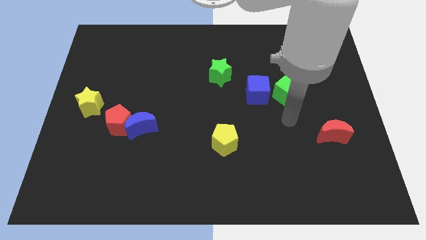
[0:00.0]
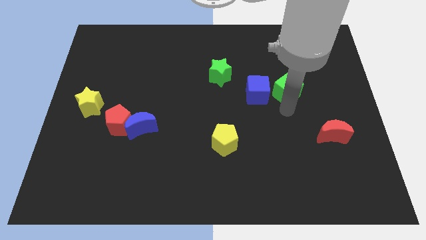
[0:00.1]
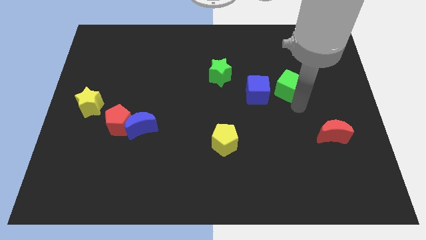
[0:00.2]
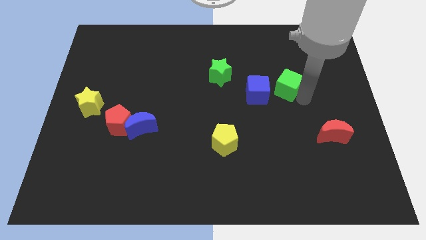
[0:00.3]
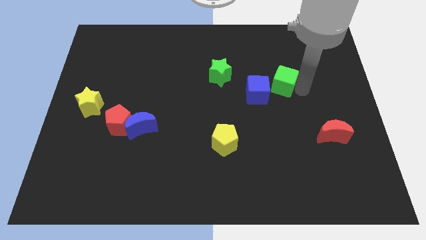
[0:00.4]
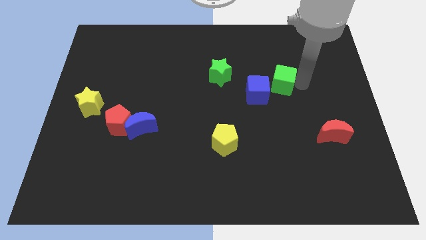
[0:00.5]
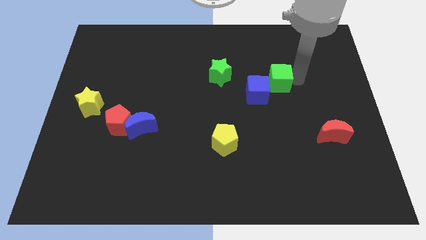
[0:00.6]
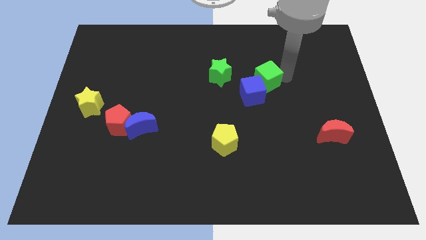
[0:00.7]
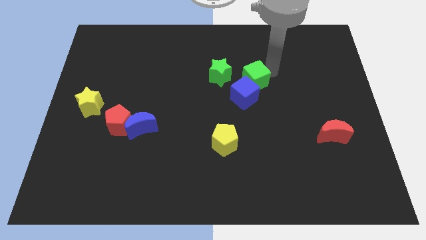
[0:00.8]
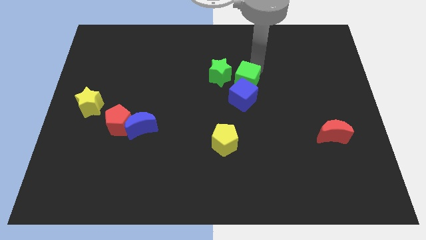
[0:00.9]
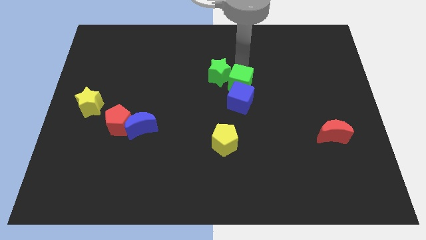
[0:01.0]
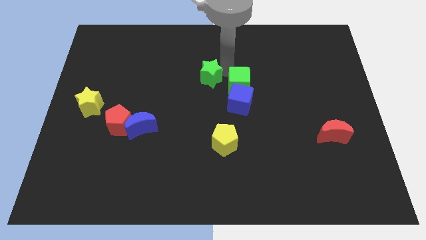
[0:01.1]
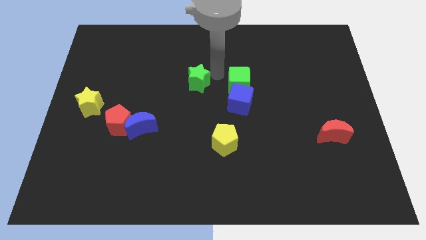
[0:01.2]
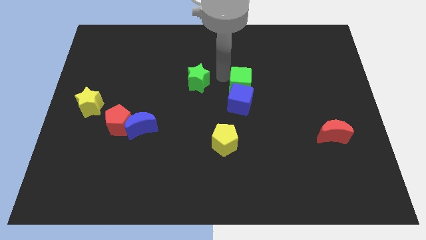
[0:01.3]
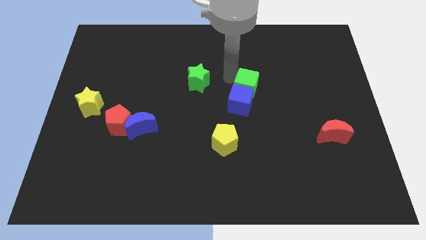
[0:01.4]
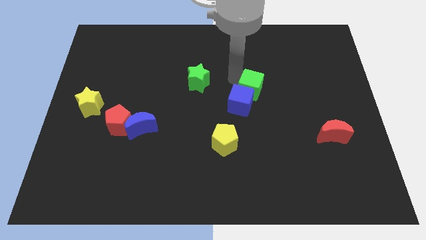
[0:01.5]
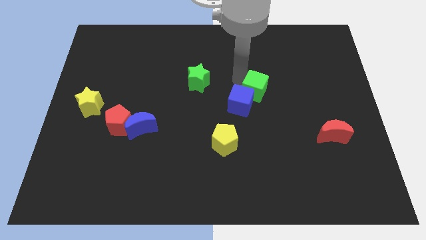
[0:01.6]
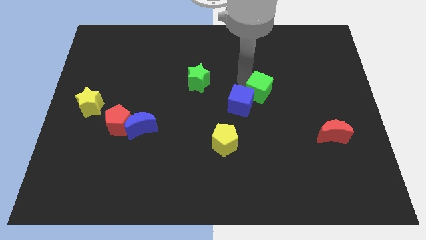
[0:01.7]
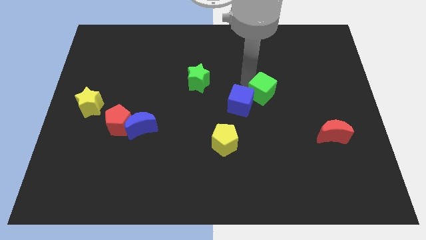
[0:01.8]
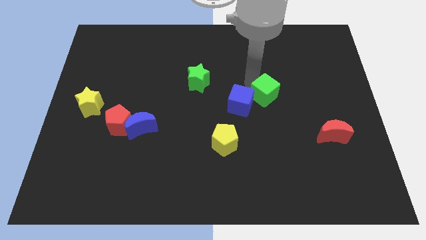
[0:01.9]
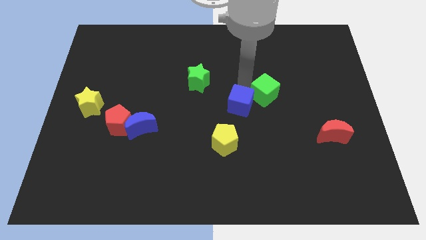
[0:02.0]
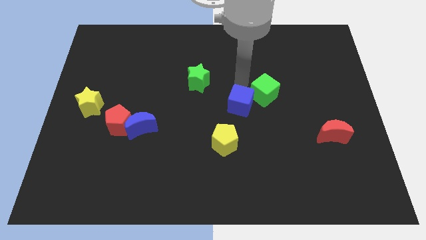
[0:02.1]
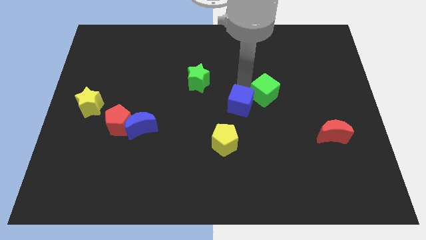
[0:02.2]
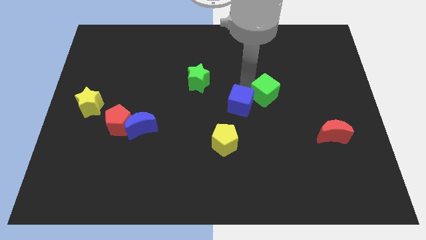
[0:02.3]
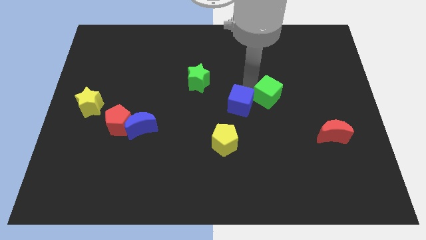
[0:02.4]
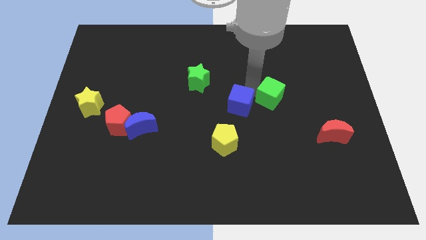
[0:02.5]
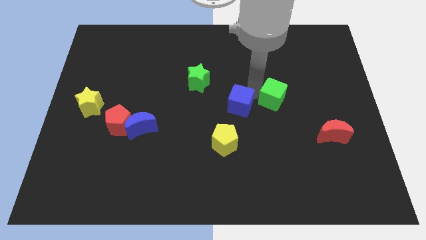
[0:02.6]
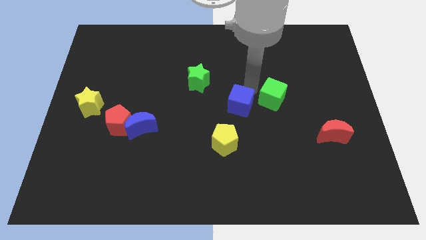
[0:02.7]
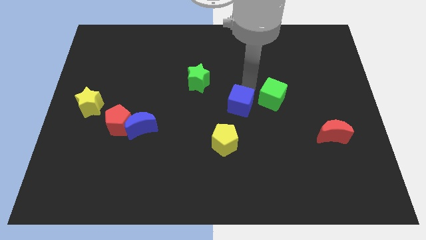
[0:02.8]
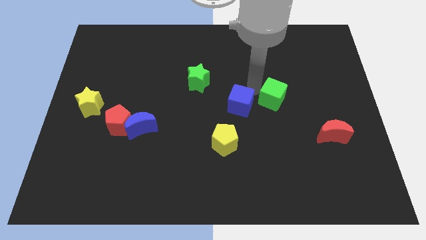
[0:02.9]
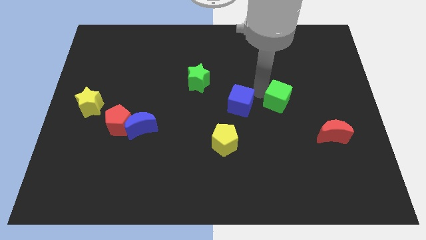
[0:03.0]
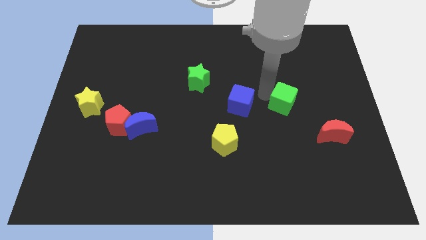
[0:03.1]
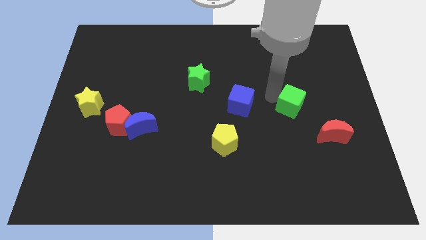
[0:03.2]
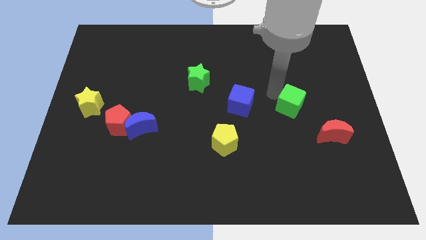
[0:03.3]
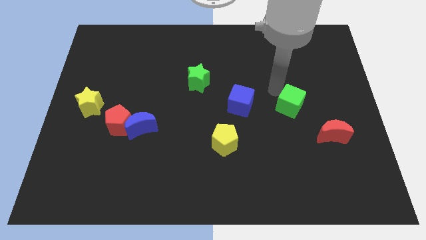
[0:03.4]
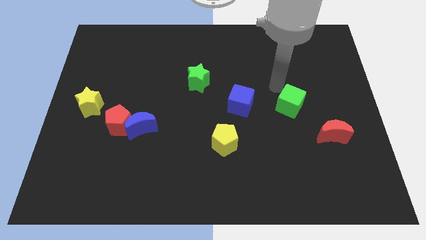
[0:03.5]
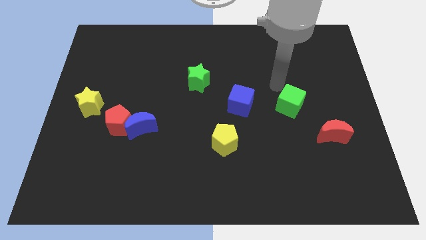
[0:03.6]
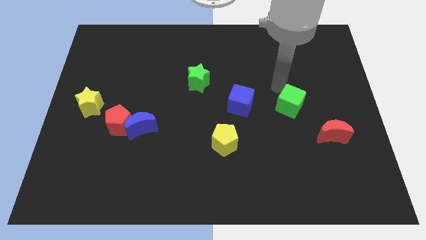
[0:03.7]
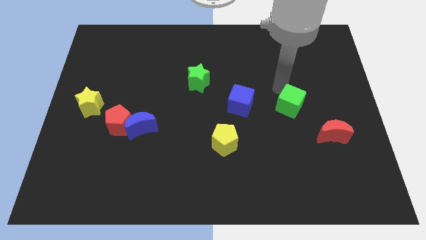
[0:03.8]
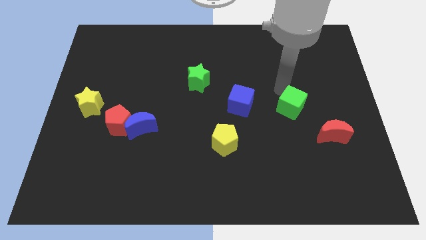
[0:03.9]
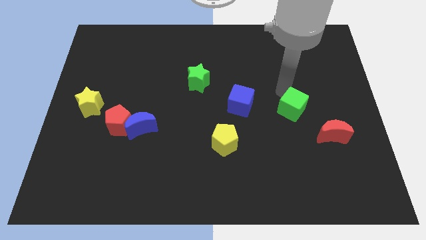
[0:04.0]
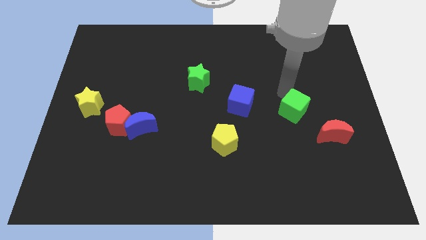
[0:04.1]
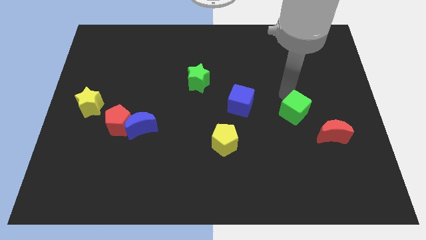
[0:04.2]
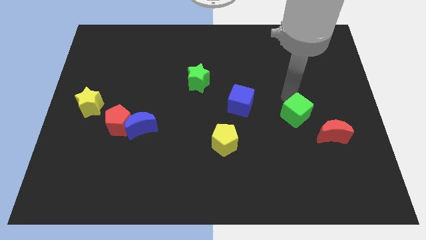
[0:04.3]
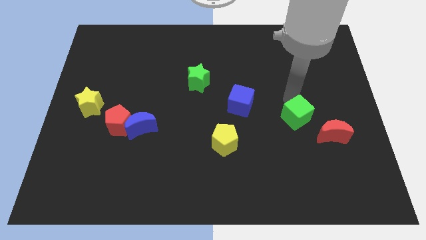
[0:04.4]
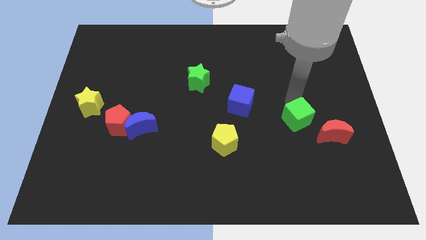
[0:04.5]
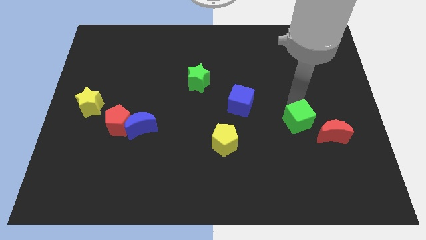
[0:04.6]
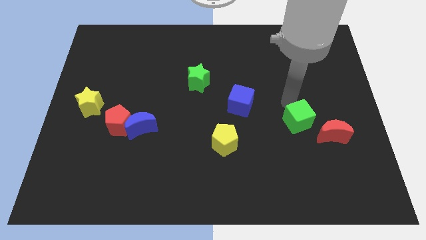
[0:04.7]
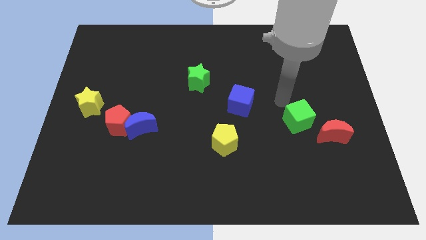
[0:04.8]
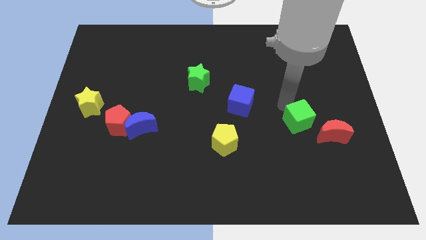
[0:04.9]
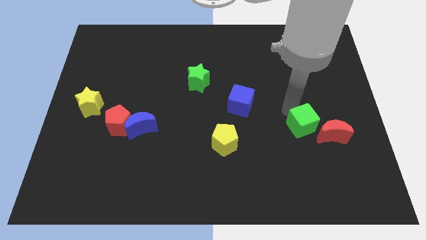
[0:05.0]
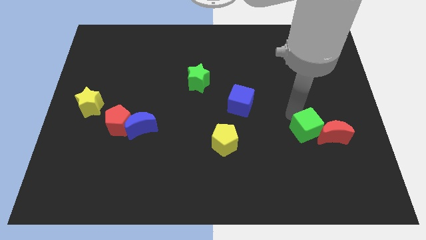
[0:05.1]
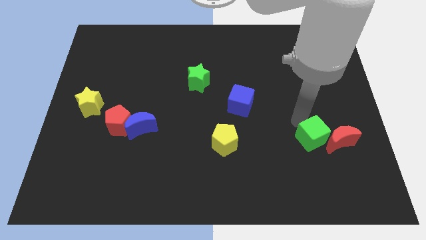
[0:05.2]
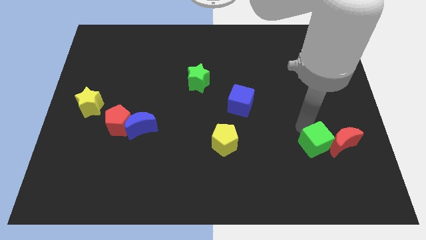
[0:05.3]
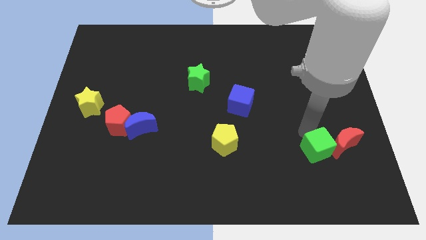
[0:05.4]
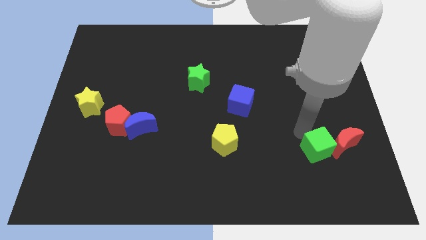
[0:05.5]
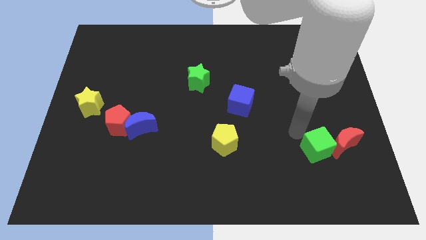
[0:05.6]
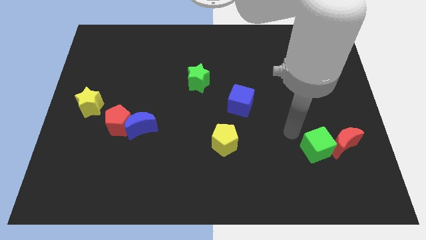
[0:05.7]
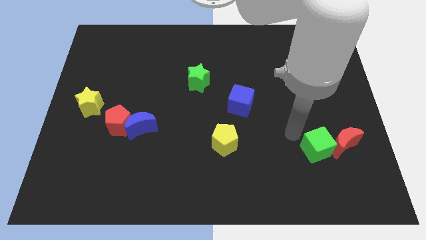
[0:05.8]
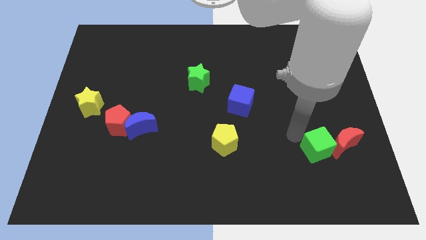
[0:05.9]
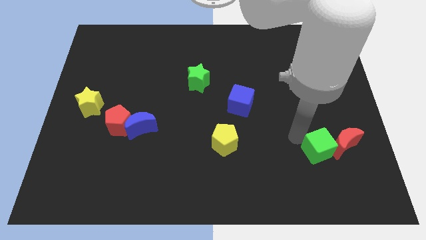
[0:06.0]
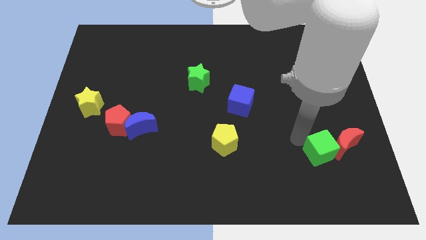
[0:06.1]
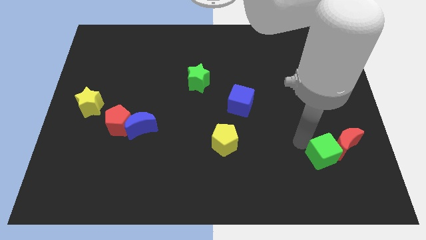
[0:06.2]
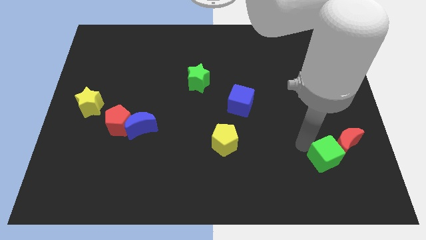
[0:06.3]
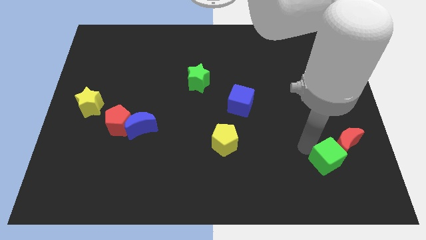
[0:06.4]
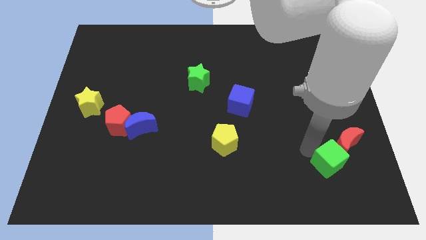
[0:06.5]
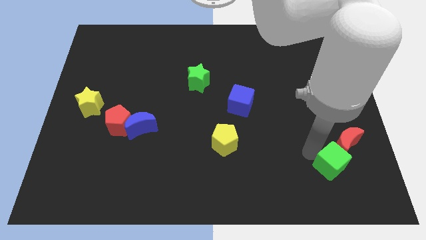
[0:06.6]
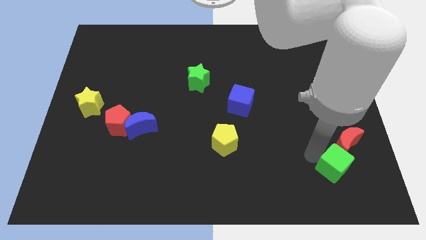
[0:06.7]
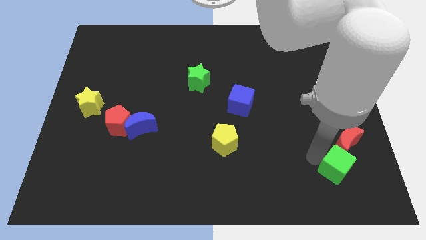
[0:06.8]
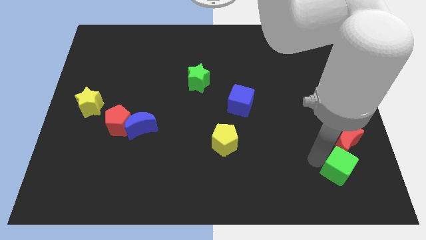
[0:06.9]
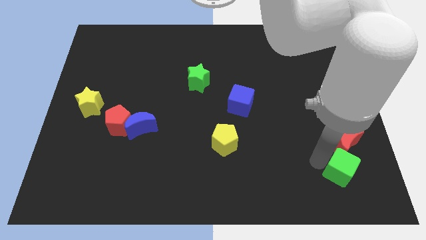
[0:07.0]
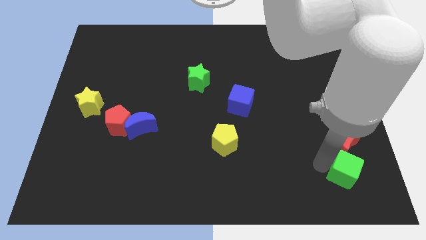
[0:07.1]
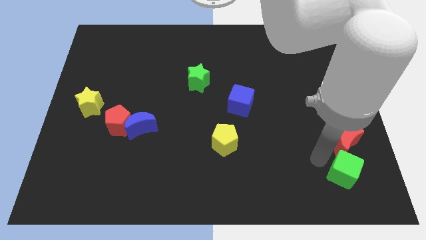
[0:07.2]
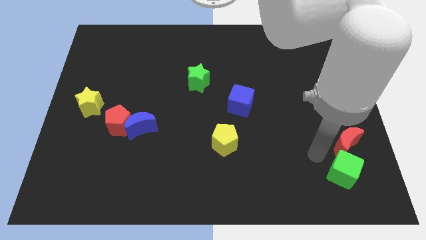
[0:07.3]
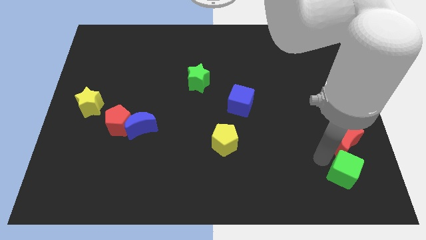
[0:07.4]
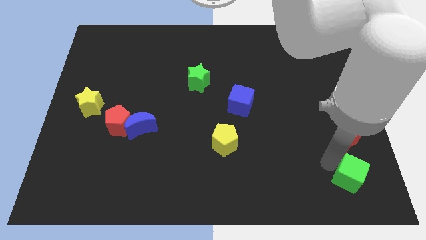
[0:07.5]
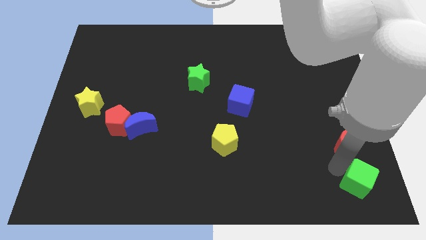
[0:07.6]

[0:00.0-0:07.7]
slide the green cube to the bottom right of the board
